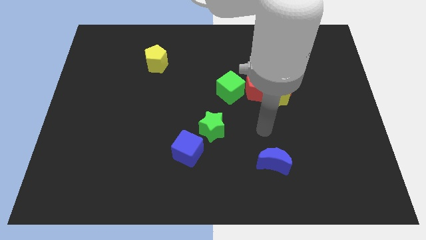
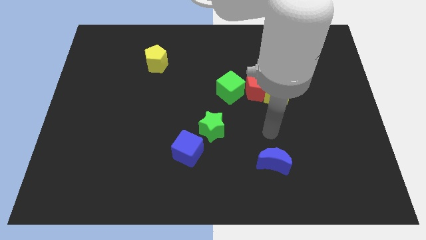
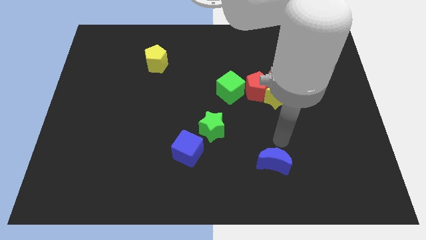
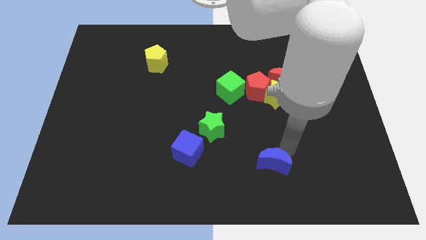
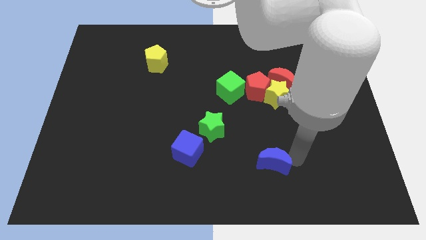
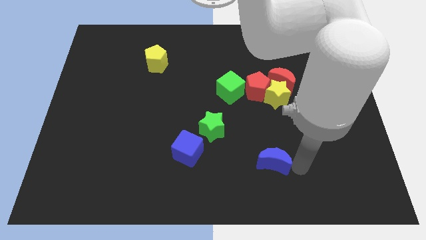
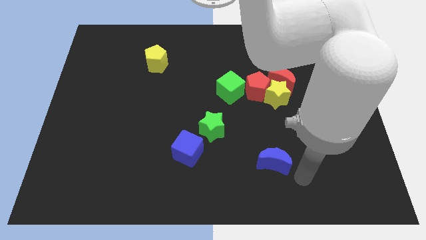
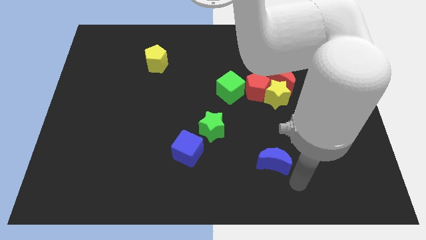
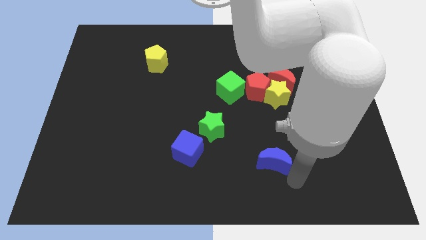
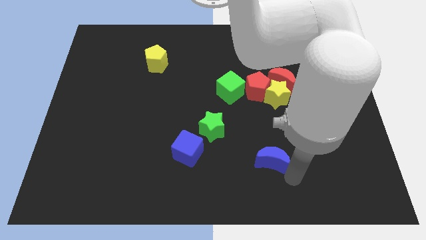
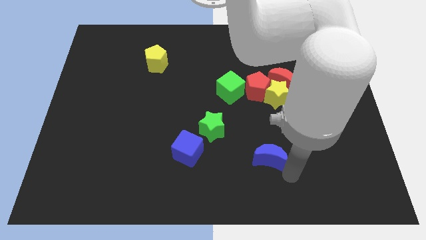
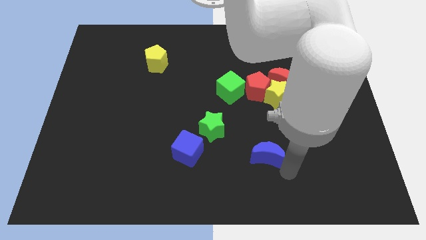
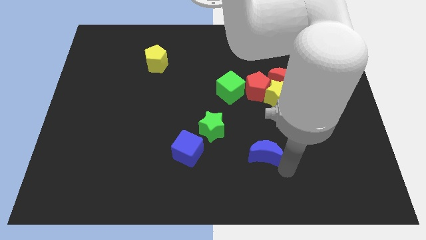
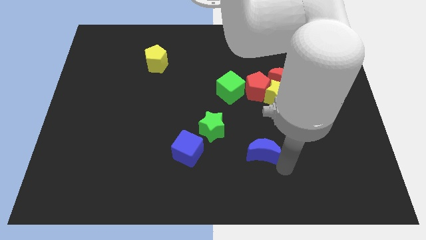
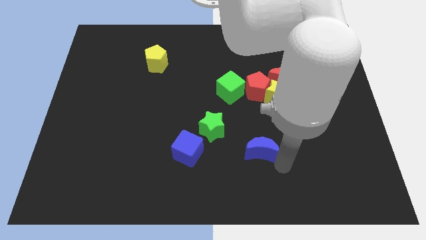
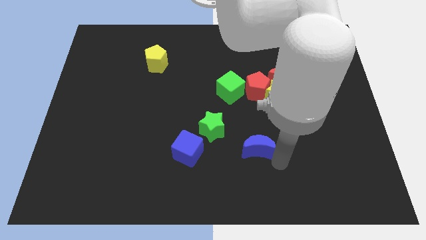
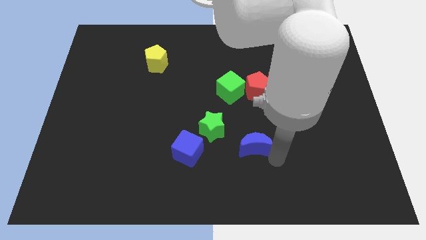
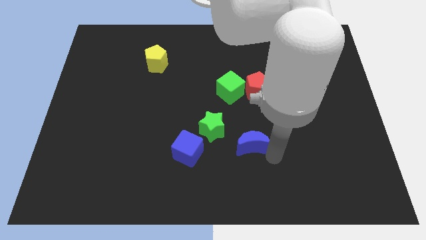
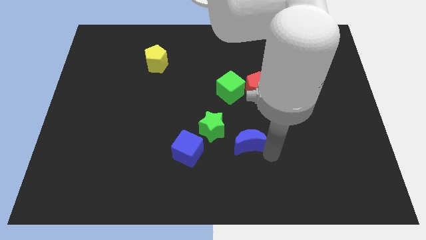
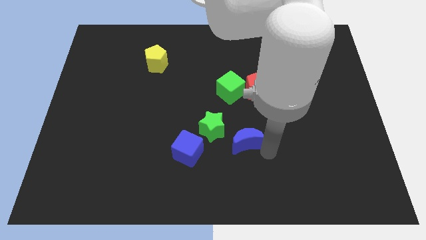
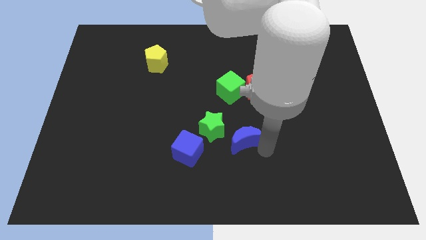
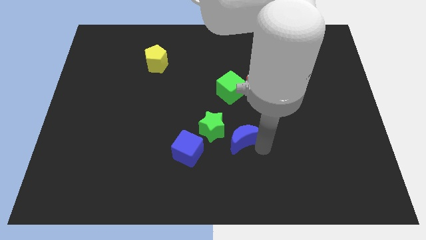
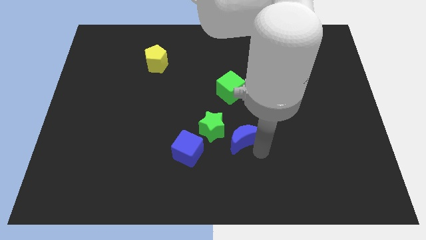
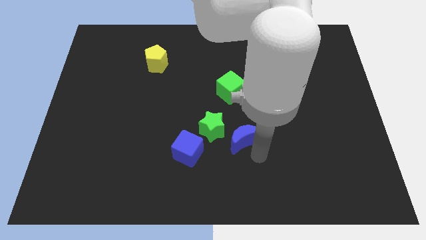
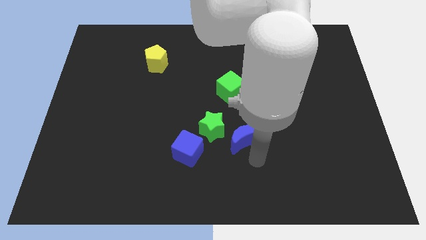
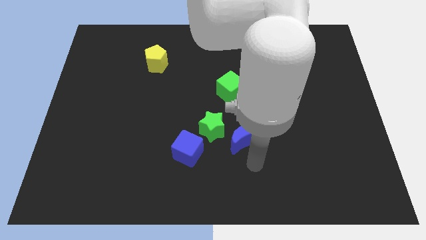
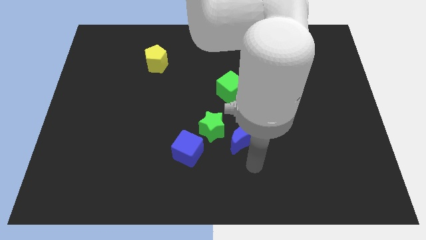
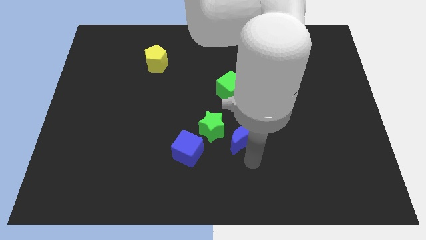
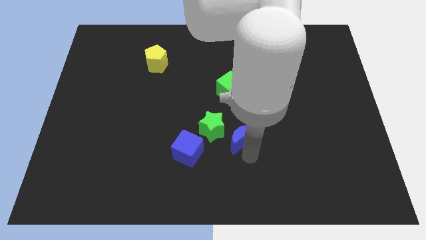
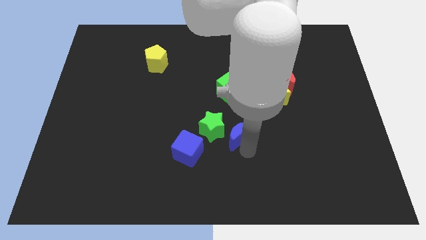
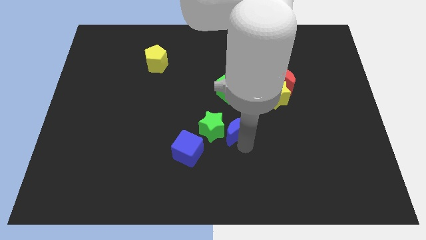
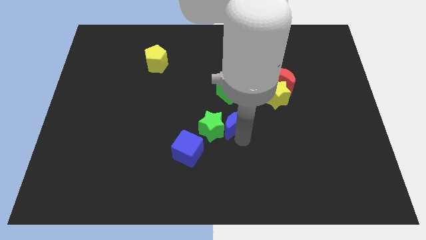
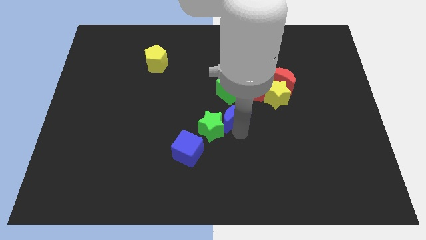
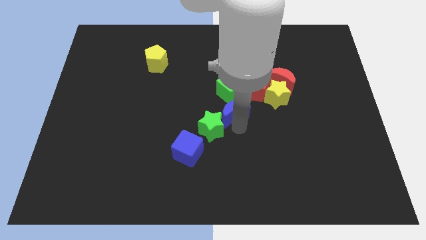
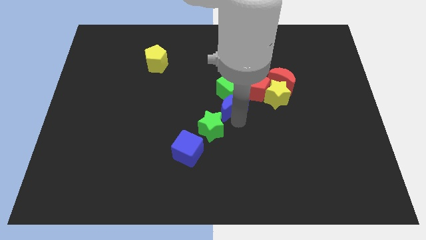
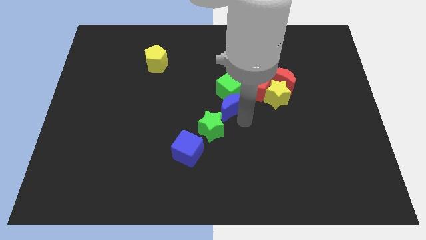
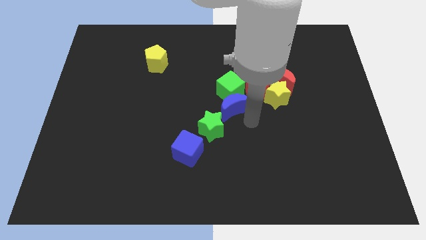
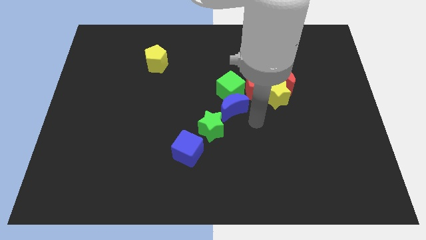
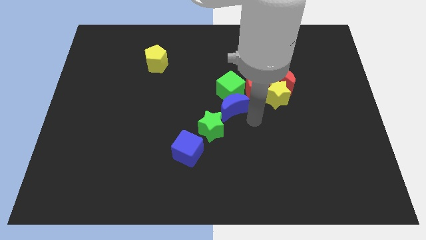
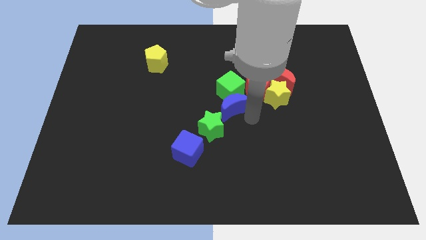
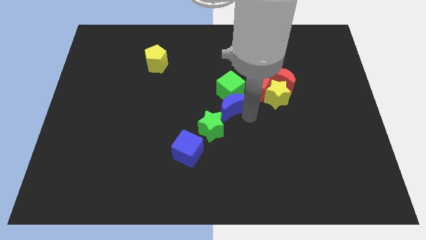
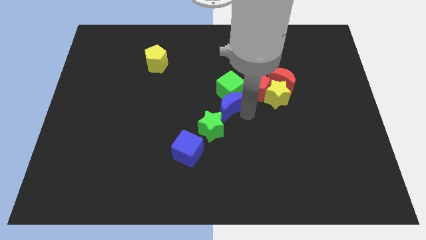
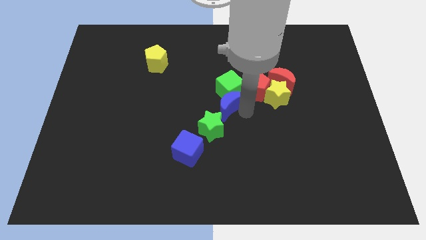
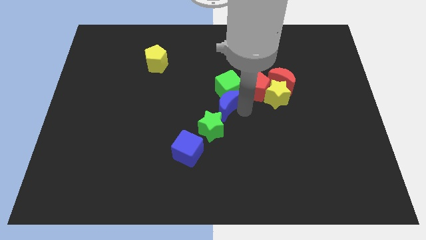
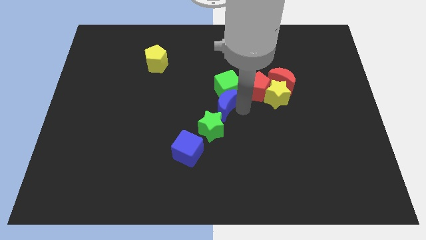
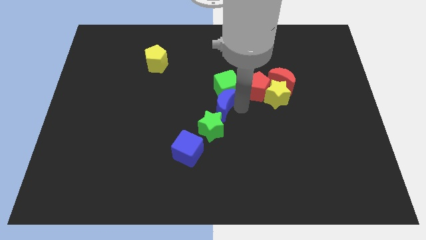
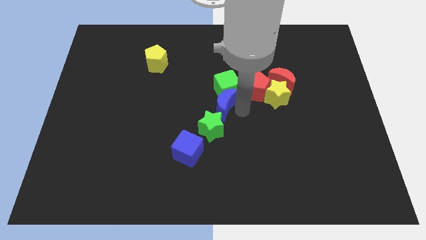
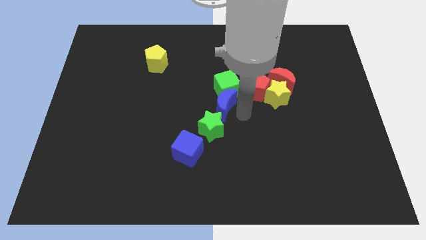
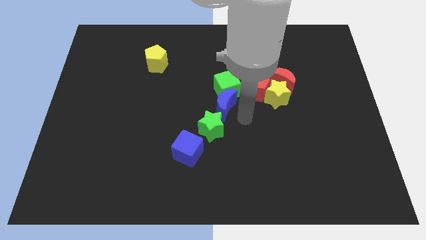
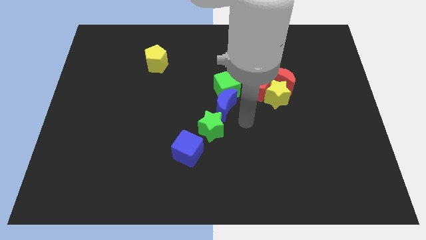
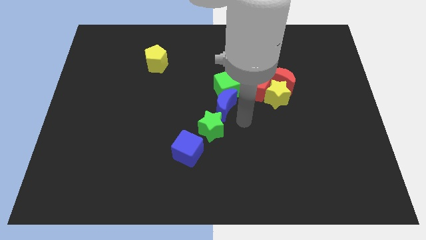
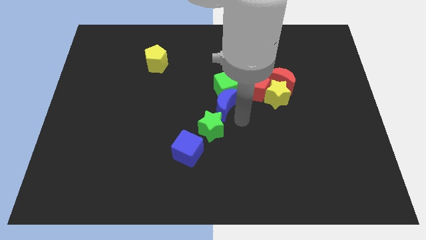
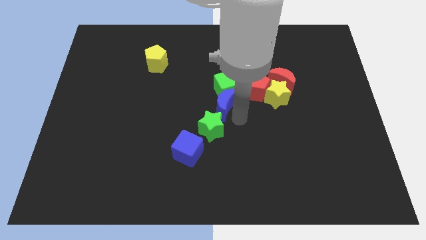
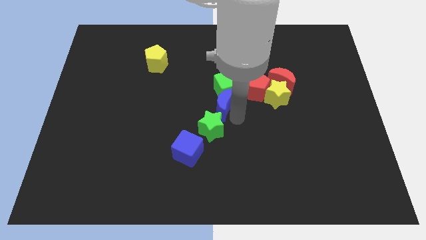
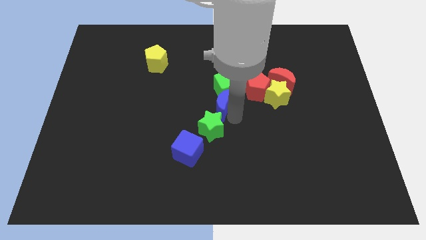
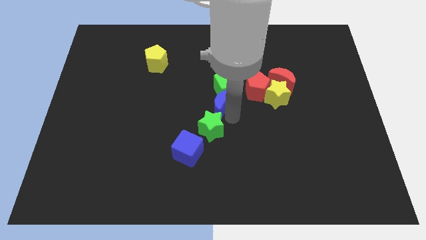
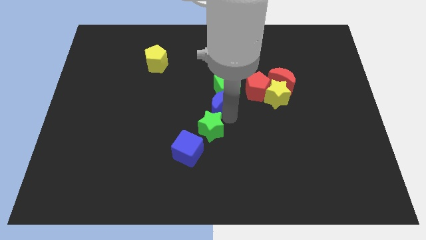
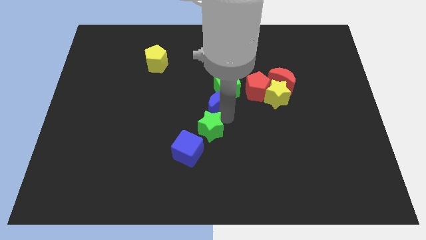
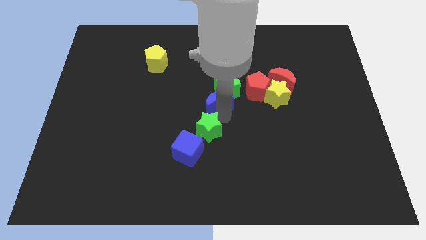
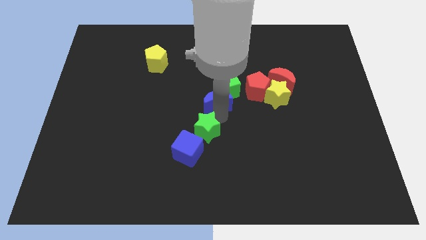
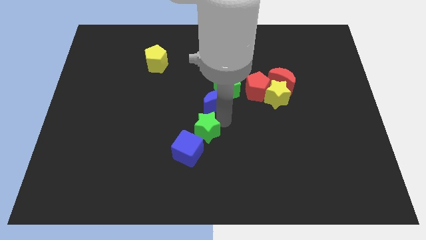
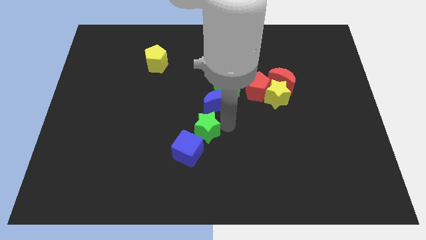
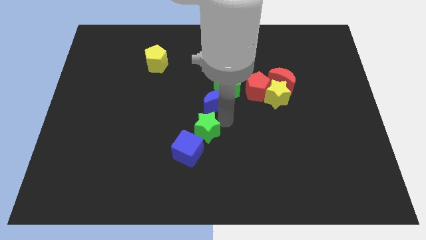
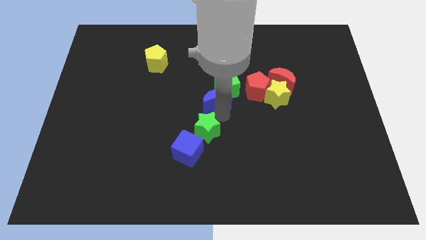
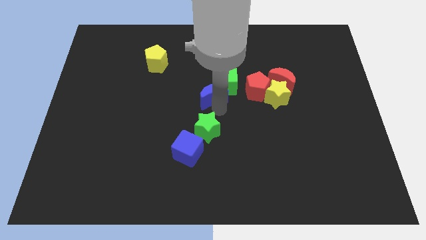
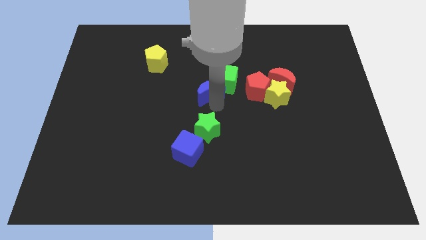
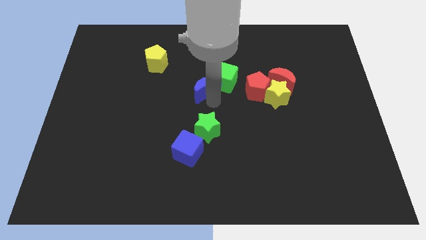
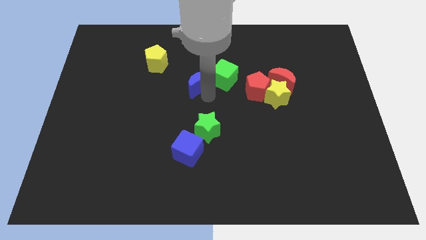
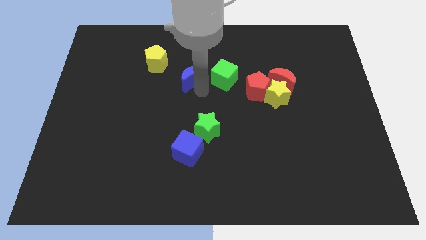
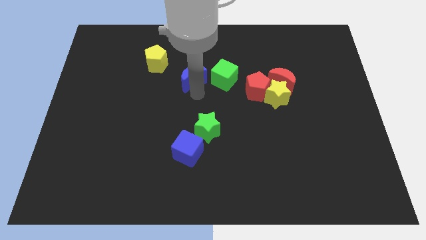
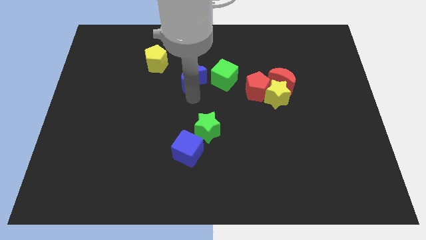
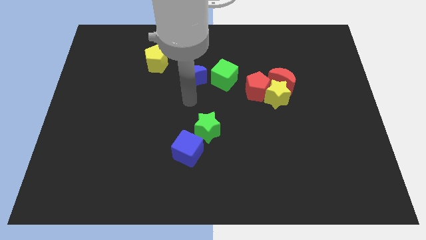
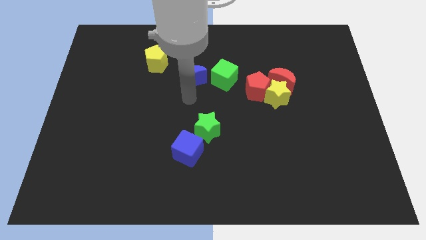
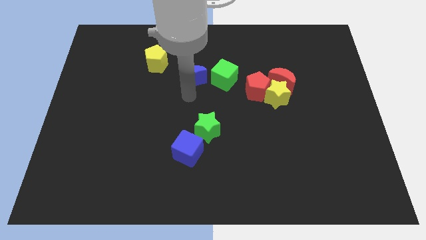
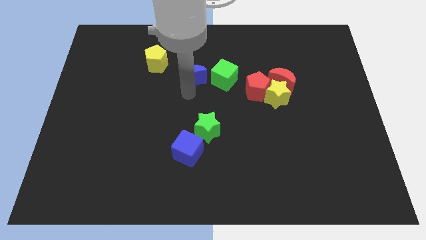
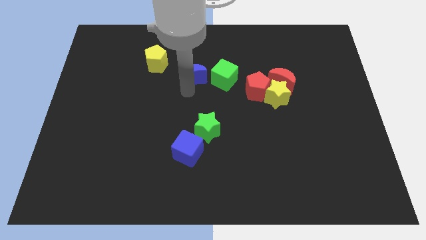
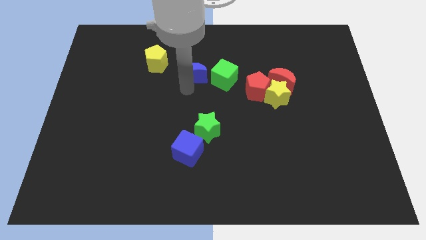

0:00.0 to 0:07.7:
put the blue moon right of the yellow pentagon
